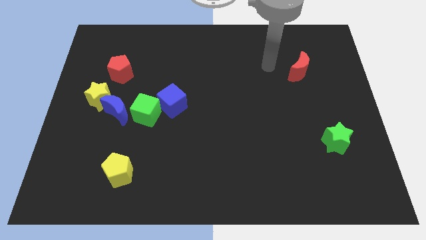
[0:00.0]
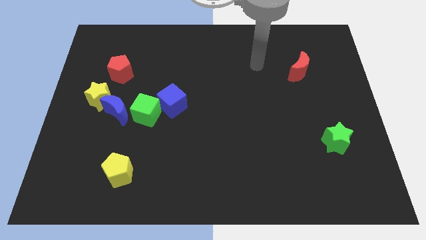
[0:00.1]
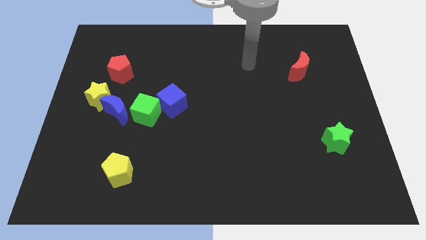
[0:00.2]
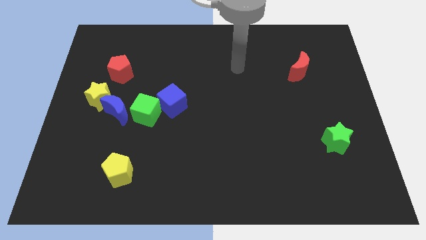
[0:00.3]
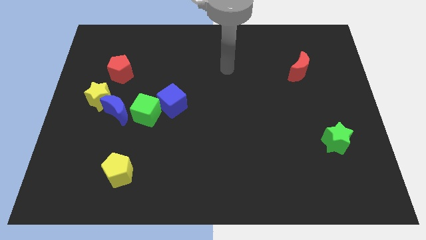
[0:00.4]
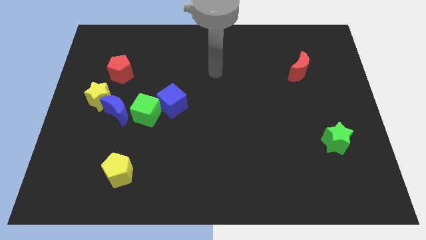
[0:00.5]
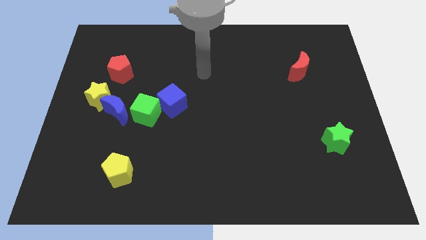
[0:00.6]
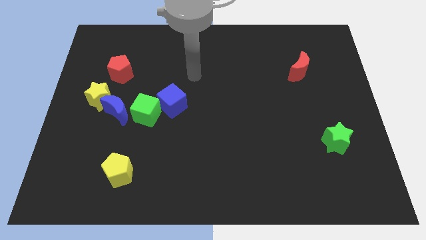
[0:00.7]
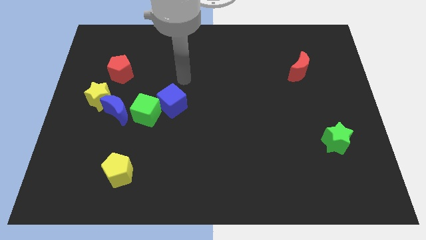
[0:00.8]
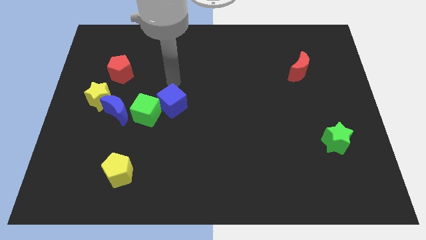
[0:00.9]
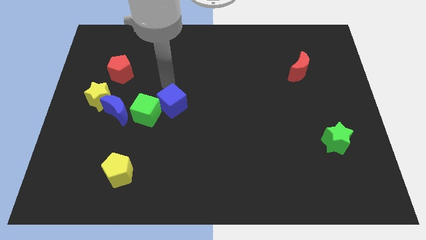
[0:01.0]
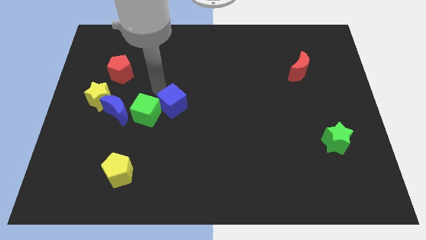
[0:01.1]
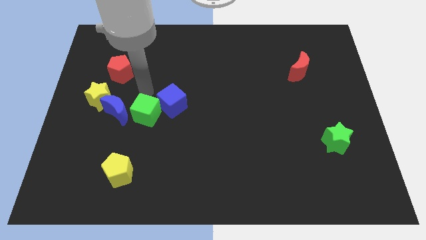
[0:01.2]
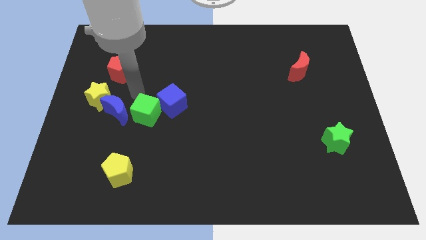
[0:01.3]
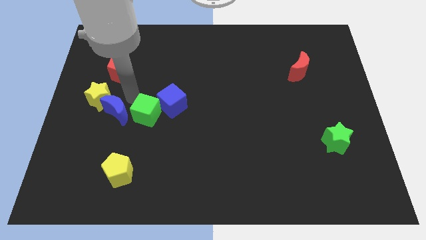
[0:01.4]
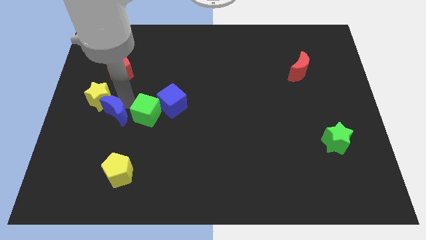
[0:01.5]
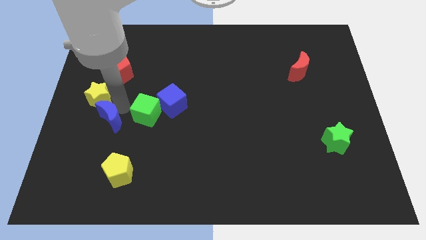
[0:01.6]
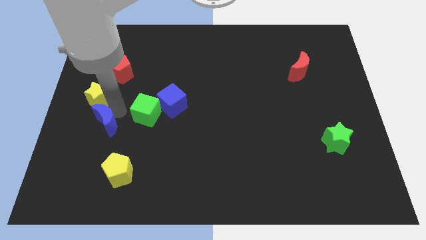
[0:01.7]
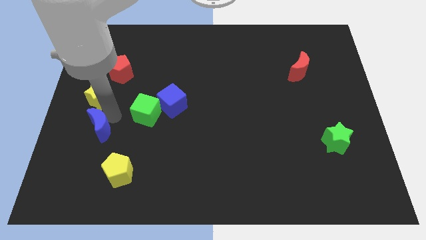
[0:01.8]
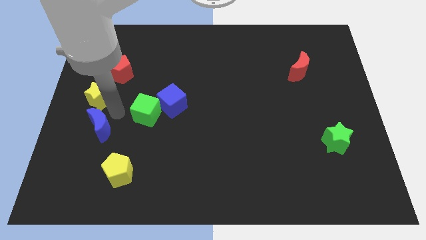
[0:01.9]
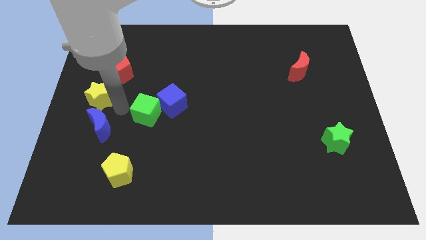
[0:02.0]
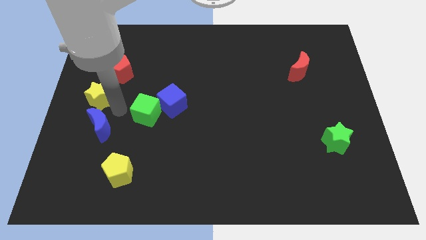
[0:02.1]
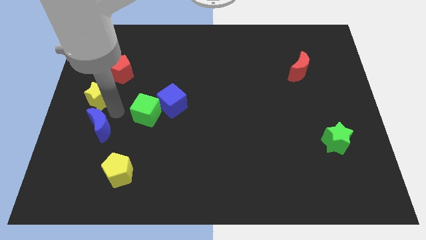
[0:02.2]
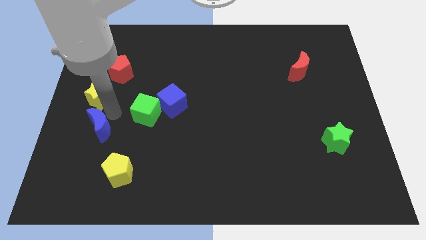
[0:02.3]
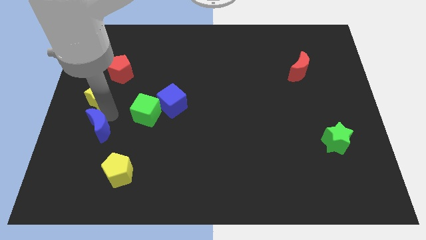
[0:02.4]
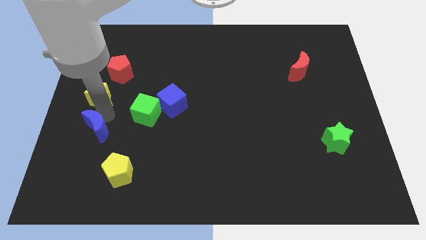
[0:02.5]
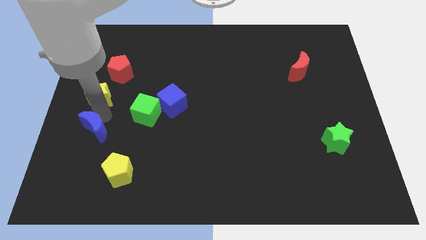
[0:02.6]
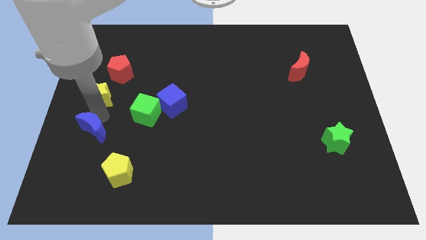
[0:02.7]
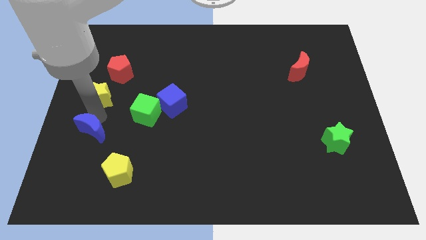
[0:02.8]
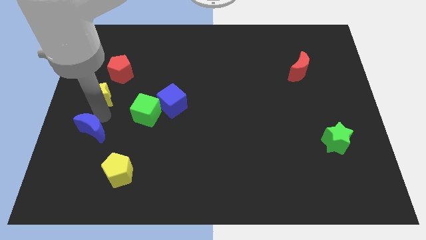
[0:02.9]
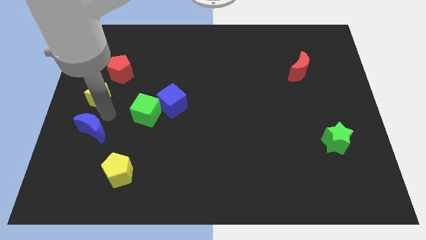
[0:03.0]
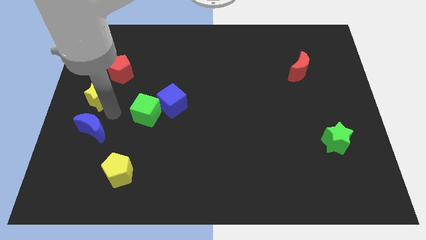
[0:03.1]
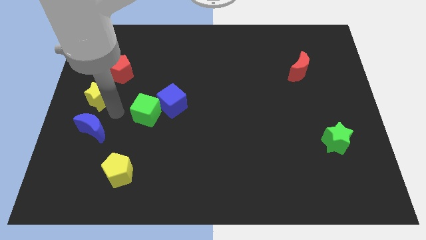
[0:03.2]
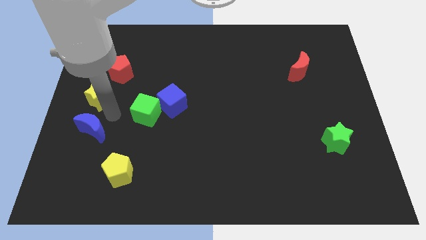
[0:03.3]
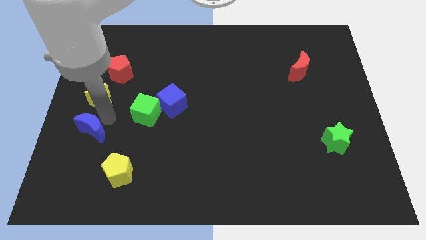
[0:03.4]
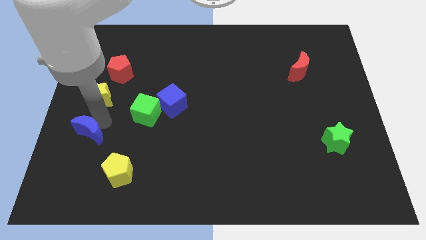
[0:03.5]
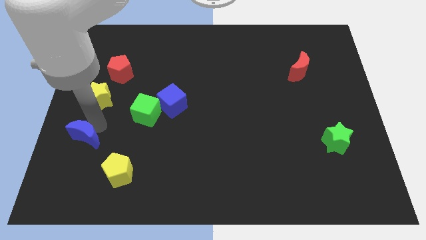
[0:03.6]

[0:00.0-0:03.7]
separate the blue moon from the yellow star and green cube

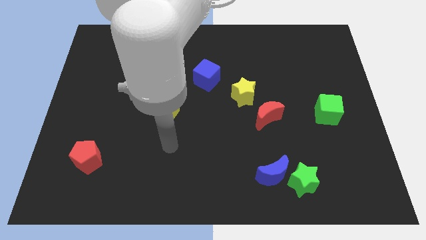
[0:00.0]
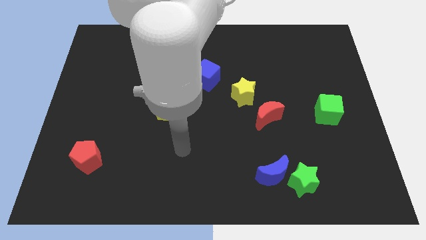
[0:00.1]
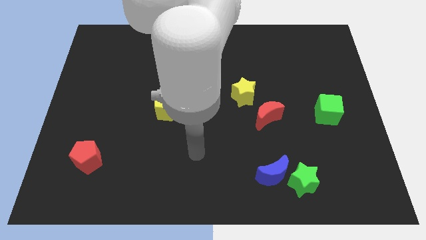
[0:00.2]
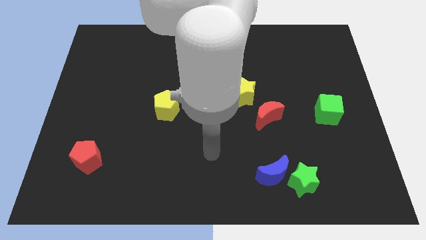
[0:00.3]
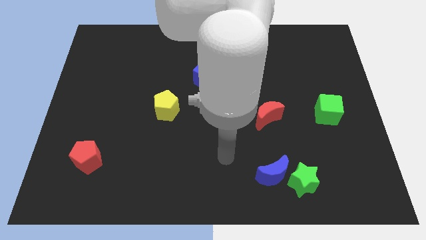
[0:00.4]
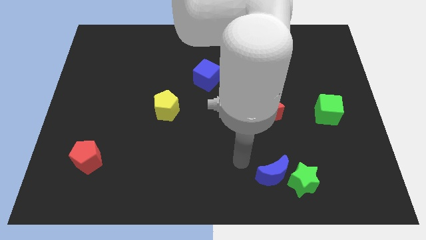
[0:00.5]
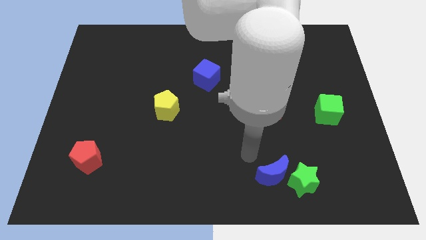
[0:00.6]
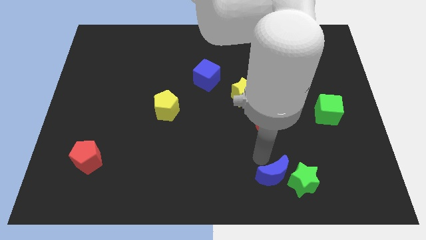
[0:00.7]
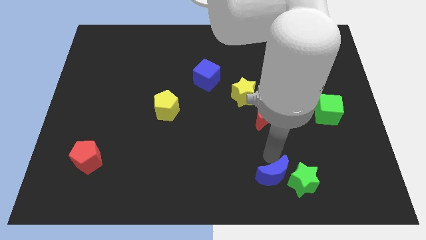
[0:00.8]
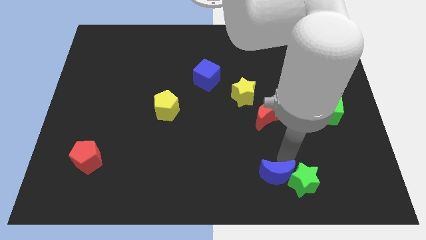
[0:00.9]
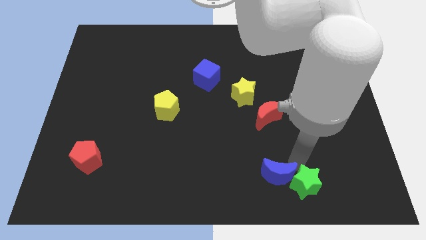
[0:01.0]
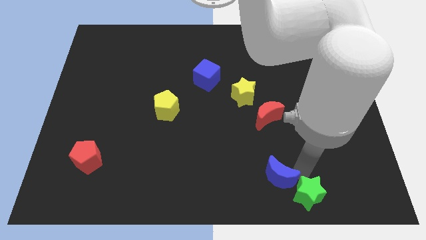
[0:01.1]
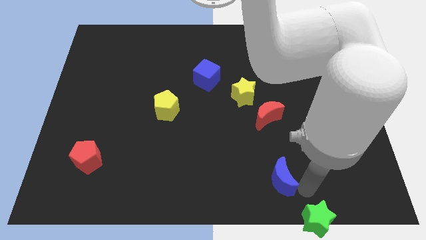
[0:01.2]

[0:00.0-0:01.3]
separate the blue moon from the green star

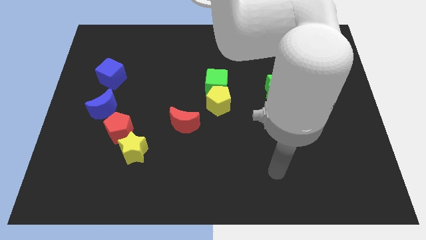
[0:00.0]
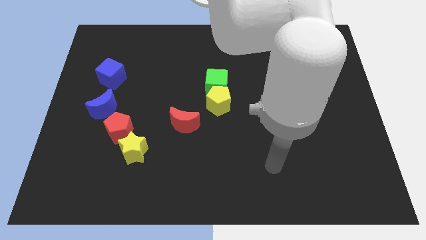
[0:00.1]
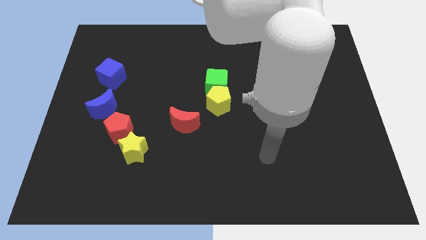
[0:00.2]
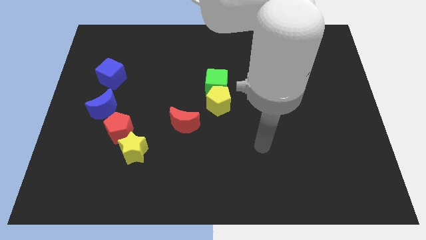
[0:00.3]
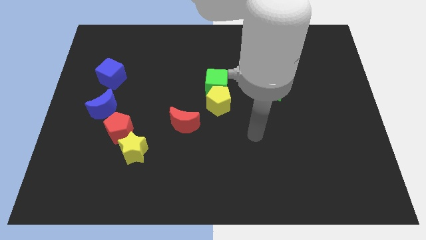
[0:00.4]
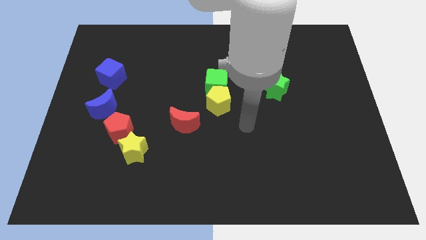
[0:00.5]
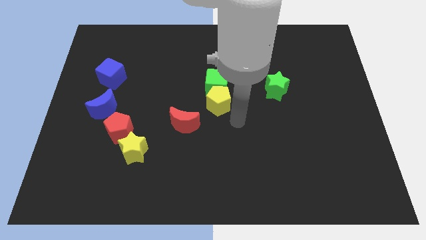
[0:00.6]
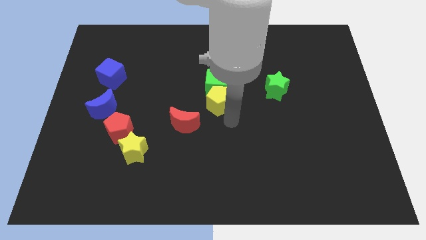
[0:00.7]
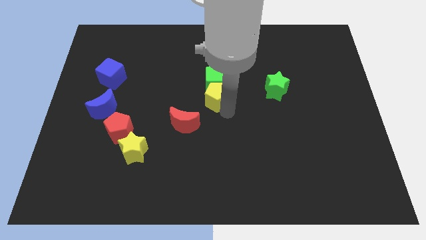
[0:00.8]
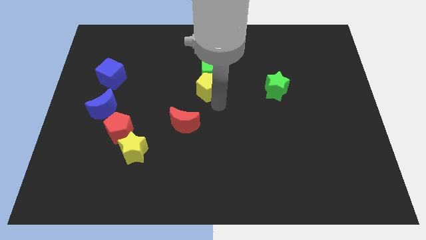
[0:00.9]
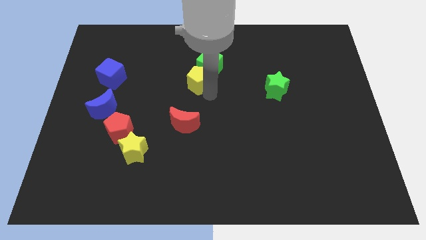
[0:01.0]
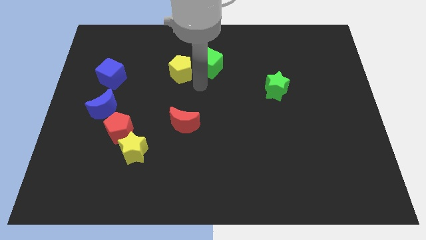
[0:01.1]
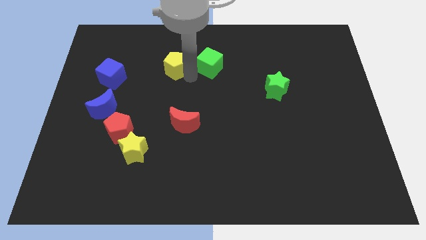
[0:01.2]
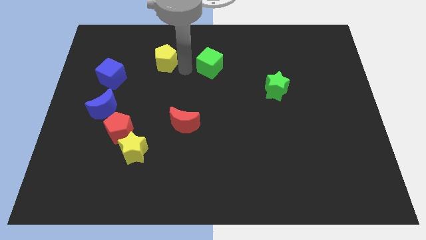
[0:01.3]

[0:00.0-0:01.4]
pull the green cube apart from the yellow pentagon

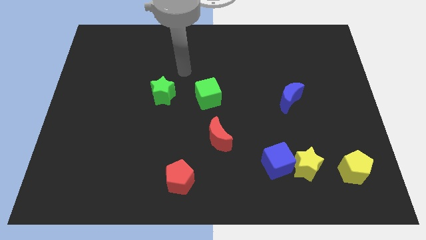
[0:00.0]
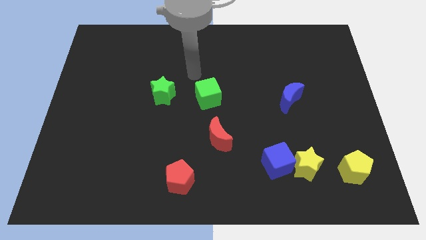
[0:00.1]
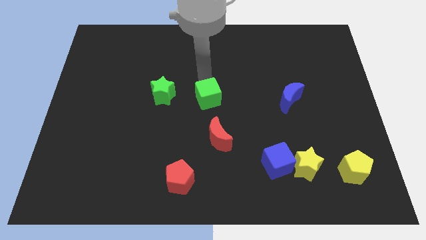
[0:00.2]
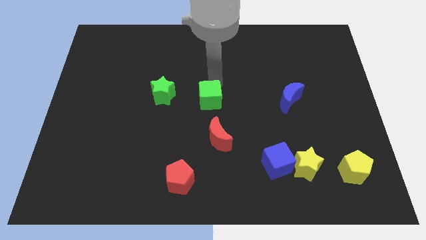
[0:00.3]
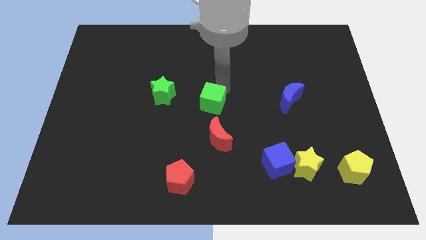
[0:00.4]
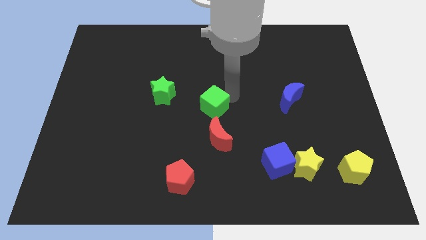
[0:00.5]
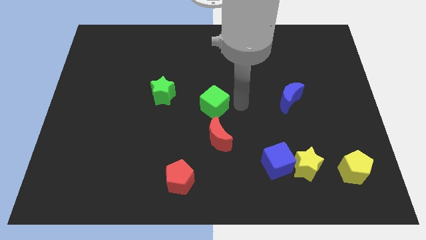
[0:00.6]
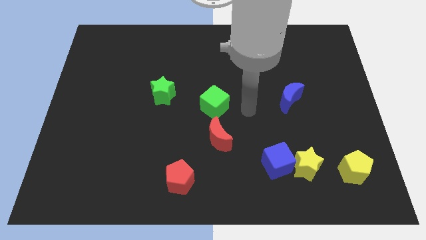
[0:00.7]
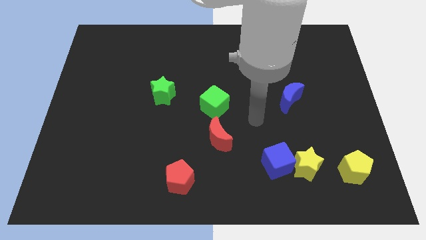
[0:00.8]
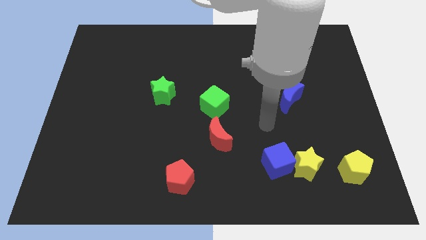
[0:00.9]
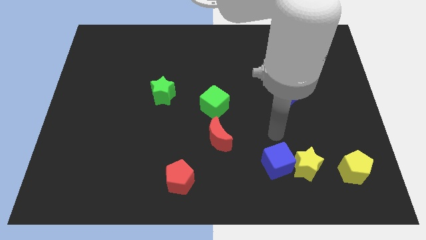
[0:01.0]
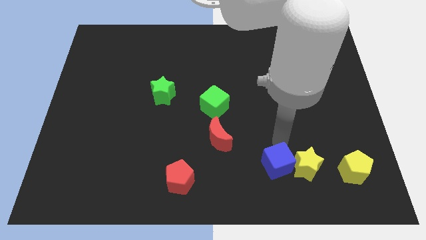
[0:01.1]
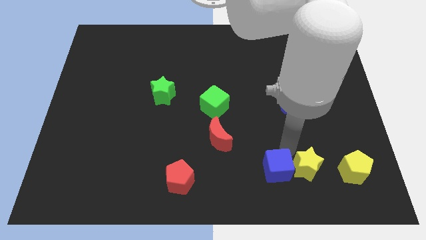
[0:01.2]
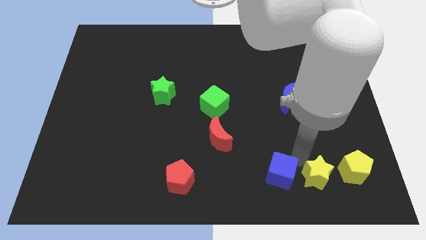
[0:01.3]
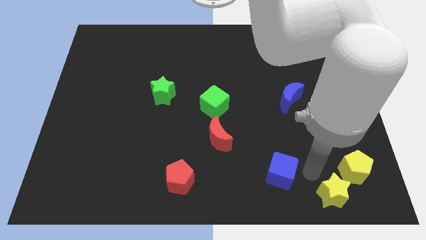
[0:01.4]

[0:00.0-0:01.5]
move the blue cube away from the yellow star

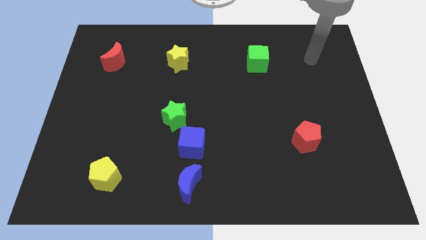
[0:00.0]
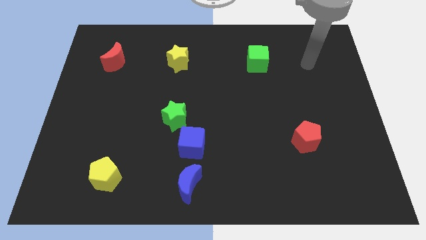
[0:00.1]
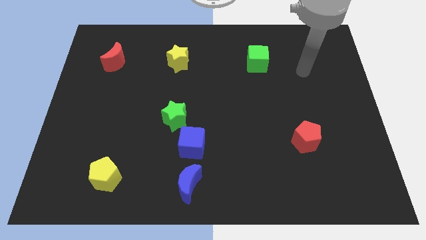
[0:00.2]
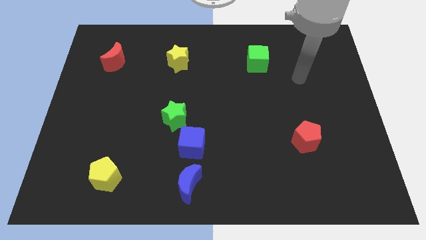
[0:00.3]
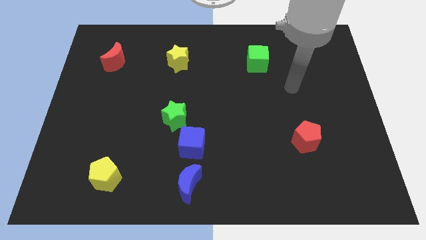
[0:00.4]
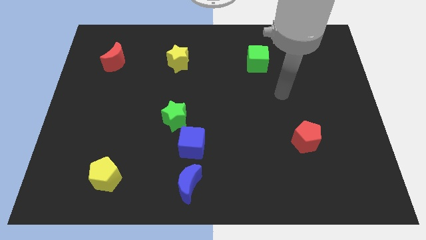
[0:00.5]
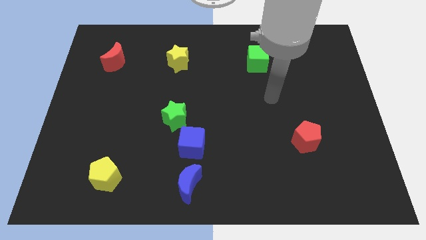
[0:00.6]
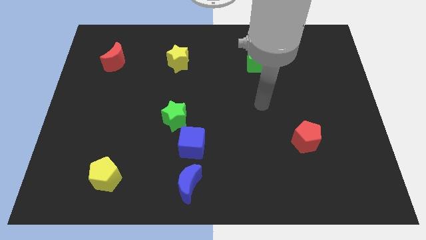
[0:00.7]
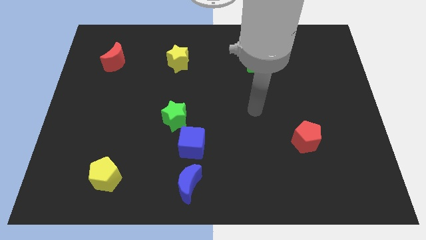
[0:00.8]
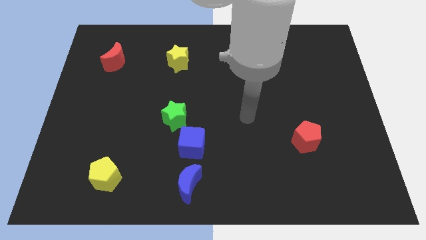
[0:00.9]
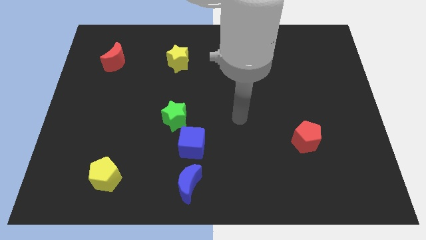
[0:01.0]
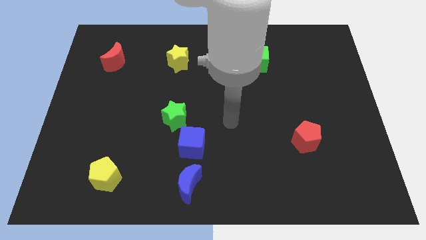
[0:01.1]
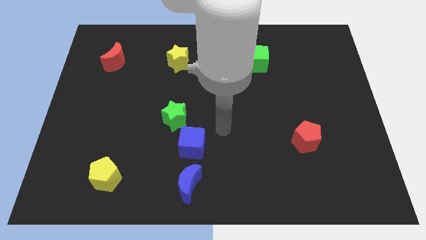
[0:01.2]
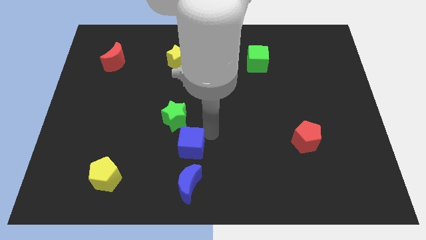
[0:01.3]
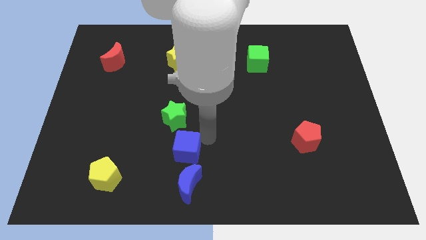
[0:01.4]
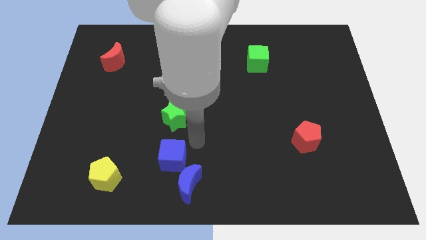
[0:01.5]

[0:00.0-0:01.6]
move the green star away from the blue cube
